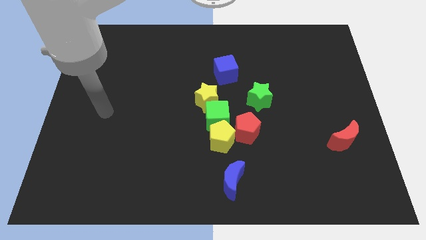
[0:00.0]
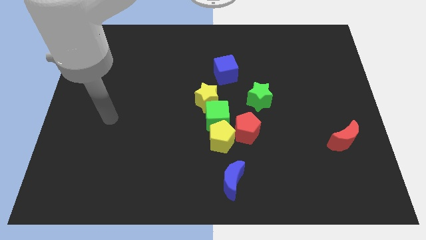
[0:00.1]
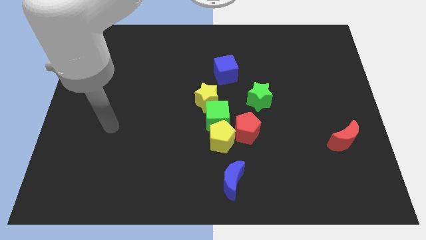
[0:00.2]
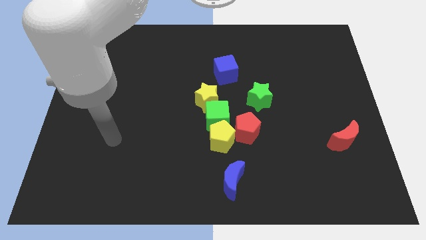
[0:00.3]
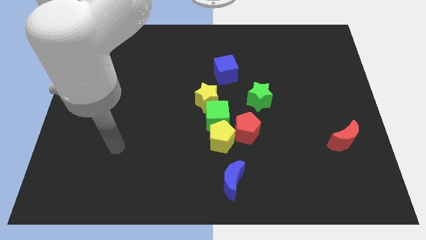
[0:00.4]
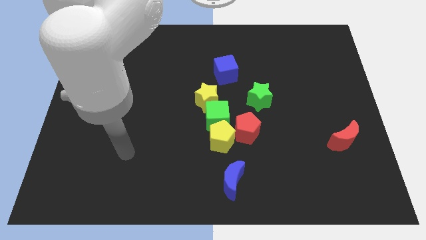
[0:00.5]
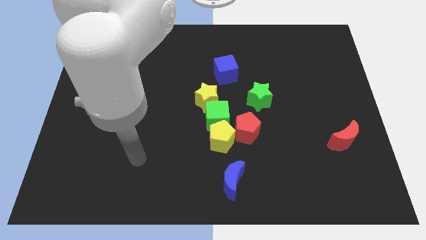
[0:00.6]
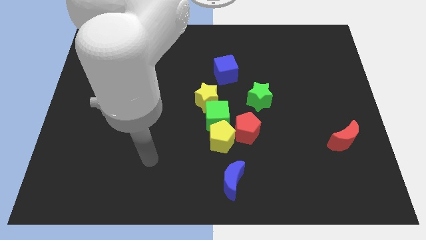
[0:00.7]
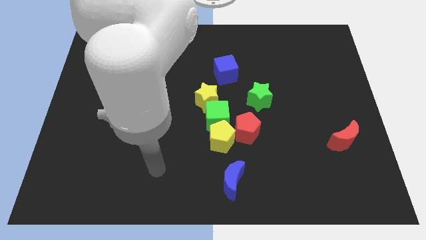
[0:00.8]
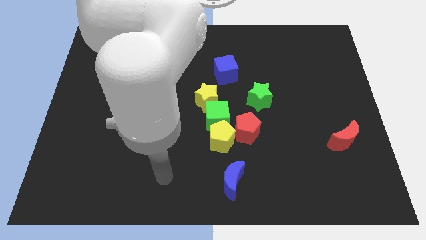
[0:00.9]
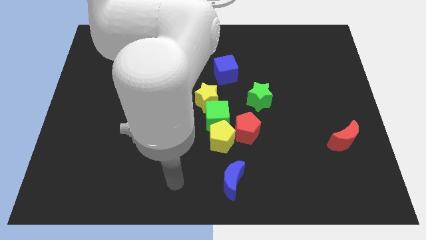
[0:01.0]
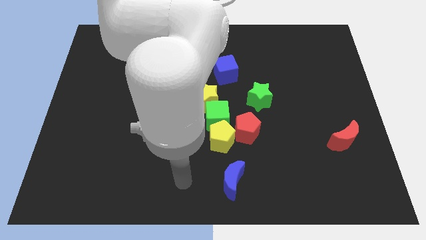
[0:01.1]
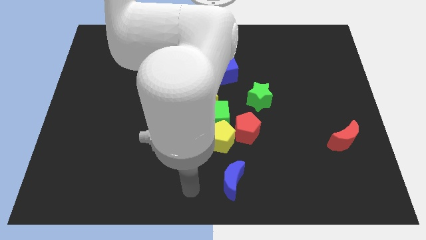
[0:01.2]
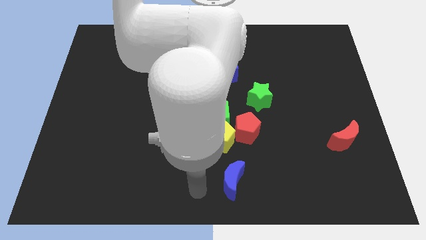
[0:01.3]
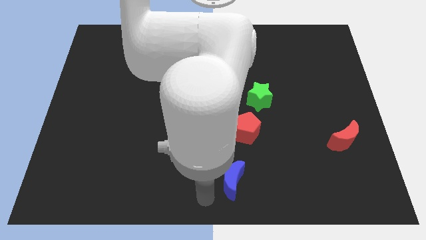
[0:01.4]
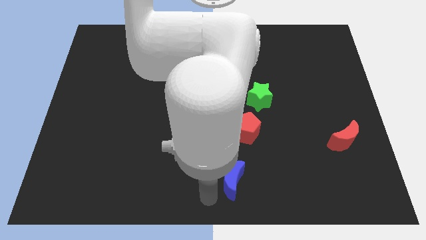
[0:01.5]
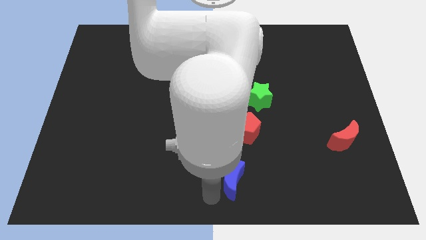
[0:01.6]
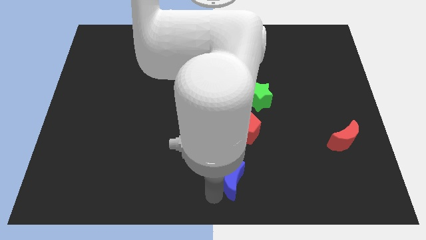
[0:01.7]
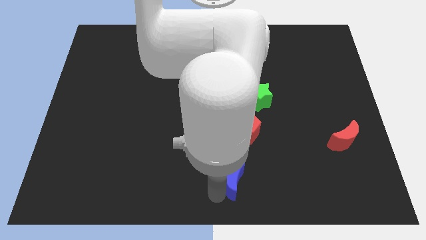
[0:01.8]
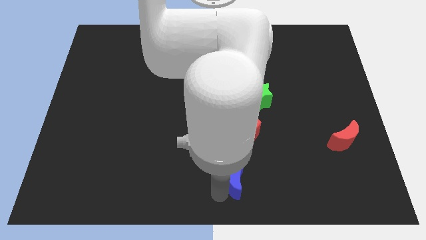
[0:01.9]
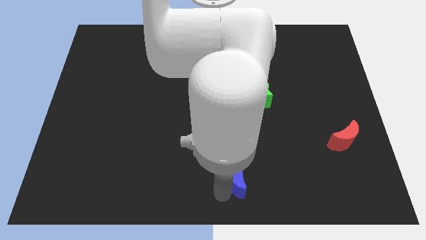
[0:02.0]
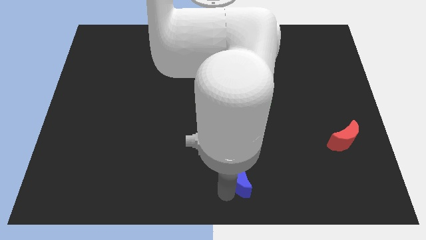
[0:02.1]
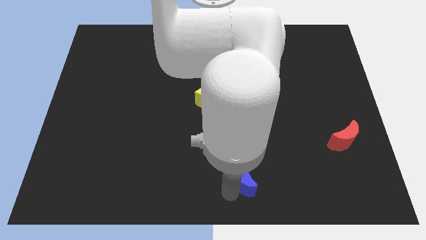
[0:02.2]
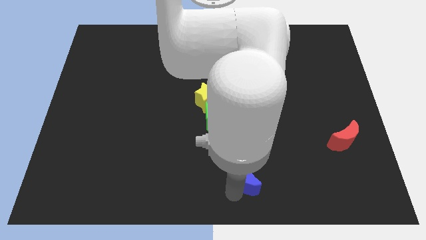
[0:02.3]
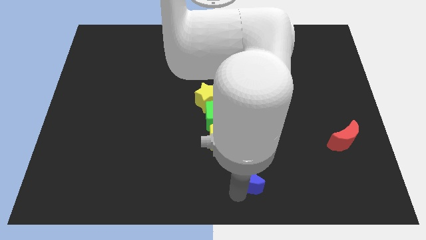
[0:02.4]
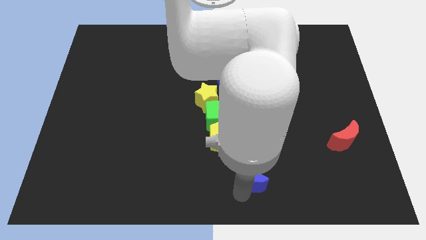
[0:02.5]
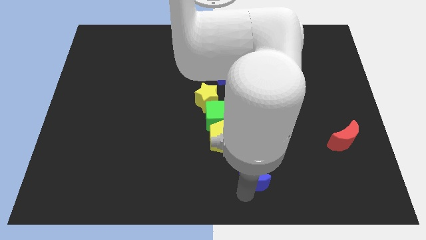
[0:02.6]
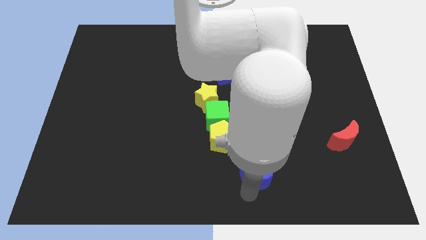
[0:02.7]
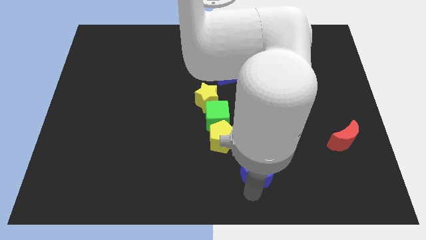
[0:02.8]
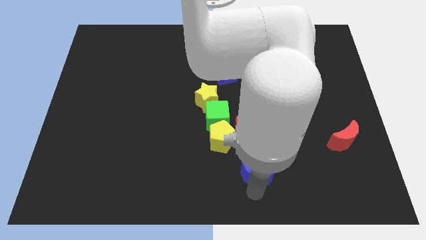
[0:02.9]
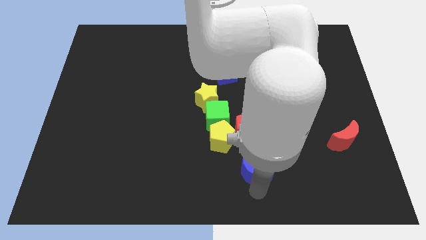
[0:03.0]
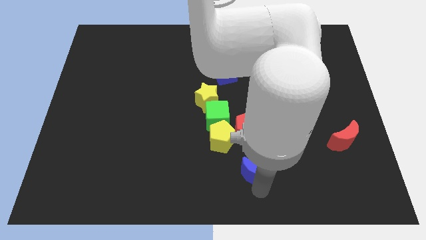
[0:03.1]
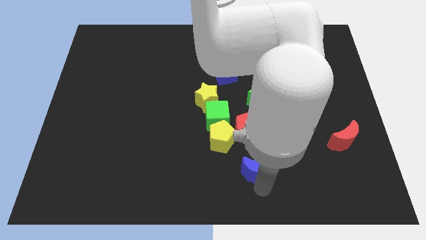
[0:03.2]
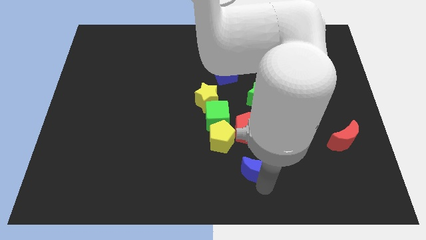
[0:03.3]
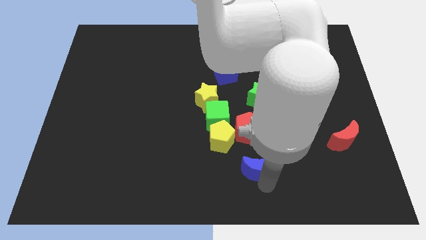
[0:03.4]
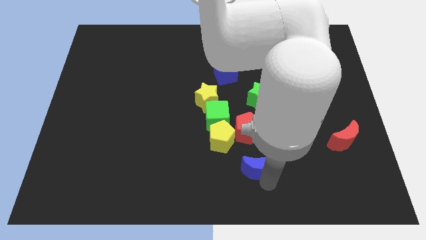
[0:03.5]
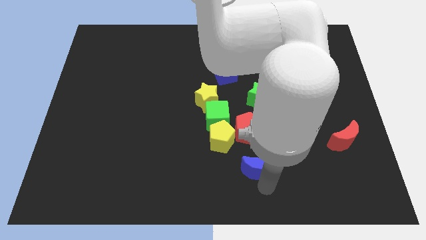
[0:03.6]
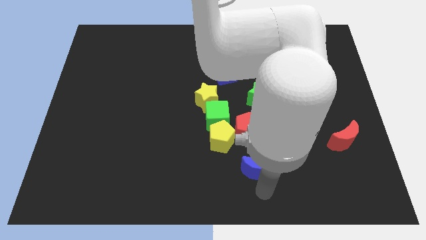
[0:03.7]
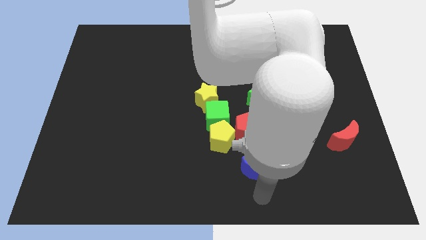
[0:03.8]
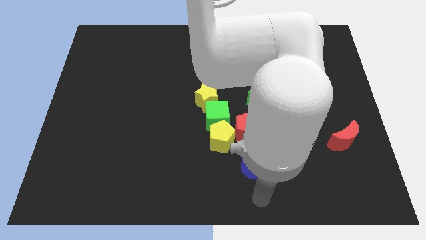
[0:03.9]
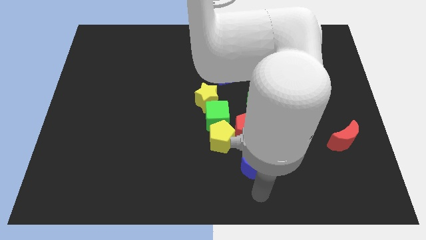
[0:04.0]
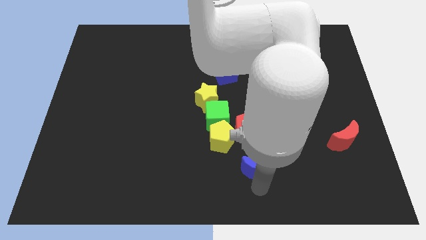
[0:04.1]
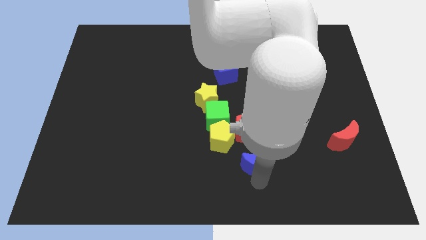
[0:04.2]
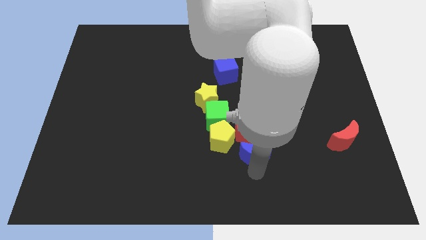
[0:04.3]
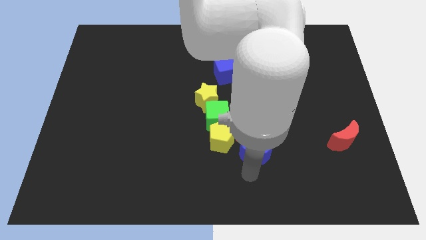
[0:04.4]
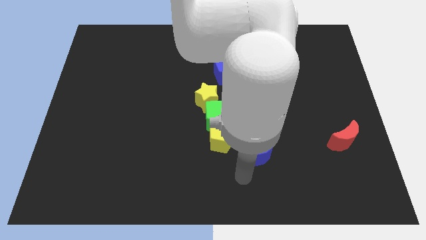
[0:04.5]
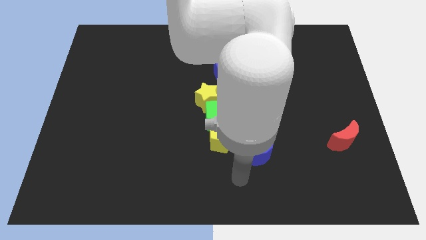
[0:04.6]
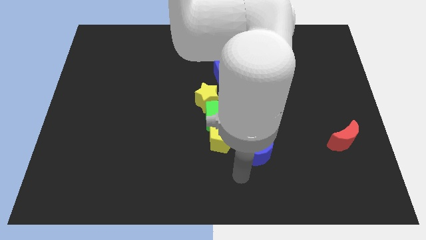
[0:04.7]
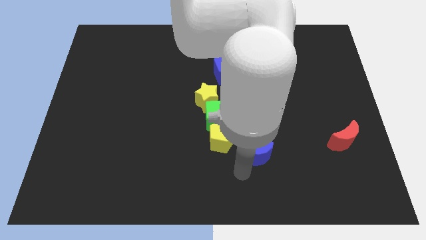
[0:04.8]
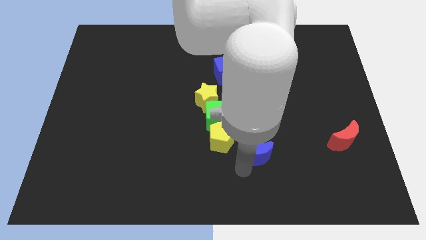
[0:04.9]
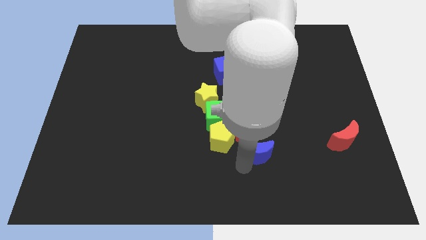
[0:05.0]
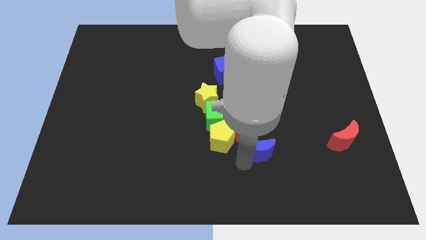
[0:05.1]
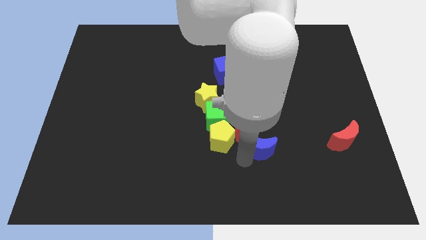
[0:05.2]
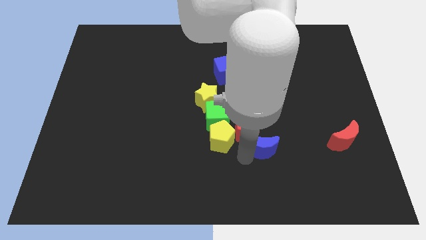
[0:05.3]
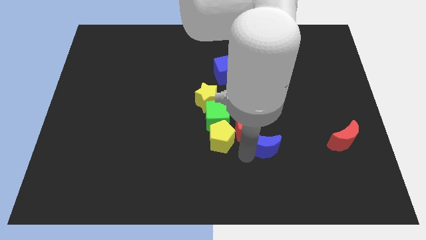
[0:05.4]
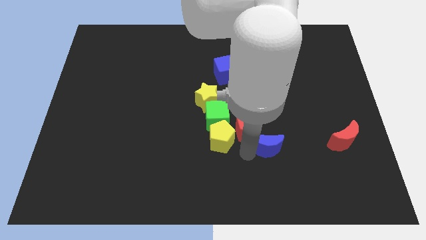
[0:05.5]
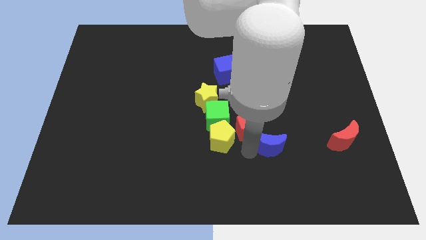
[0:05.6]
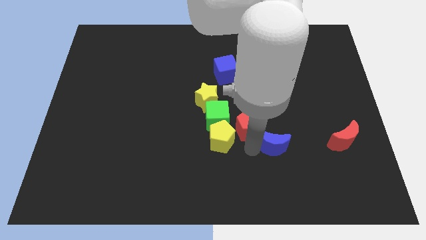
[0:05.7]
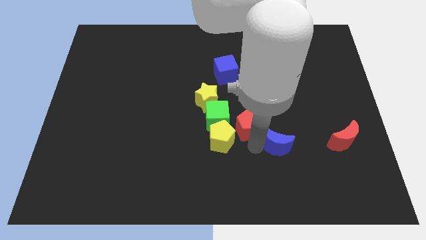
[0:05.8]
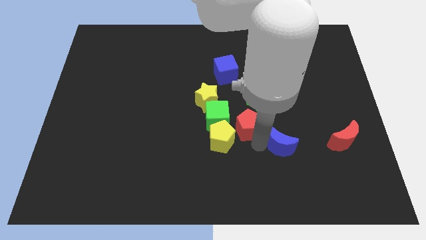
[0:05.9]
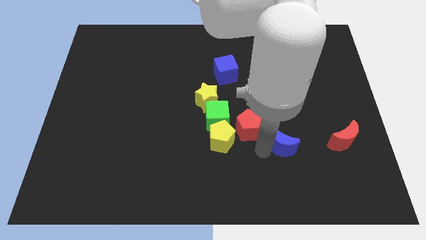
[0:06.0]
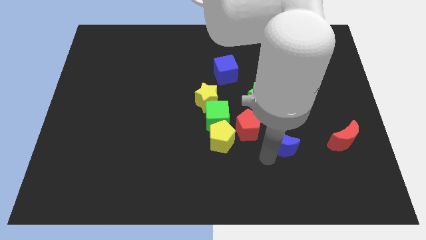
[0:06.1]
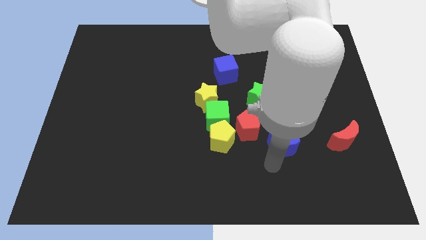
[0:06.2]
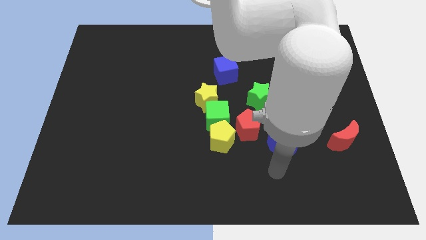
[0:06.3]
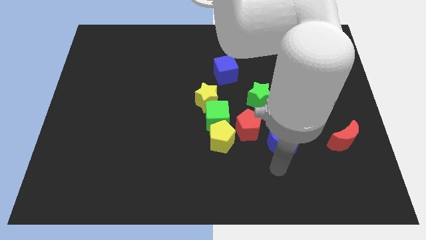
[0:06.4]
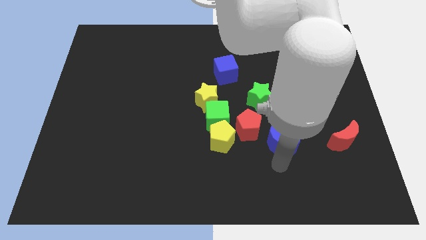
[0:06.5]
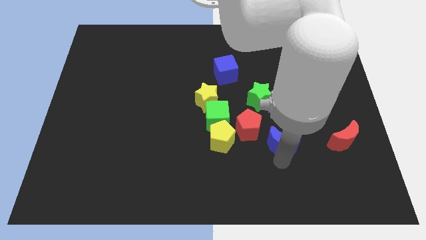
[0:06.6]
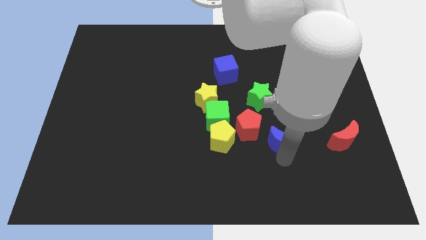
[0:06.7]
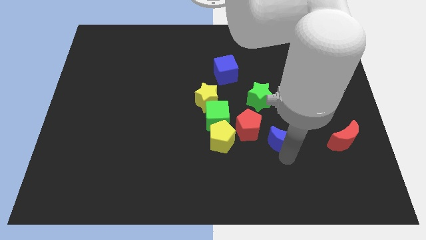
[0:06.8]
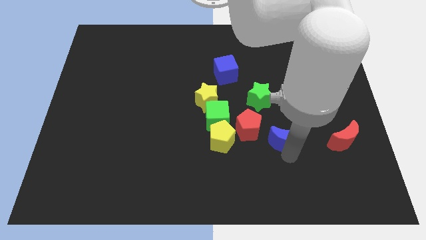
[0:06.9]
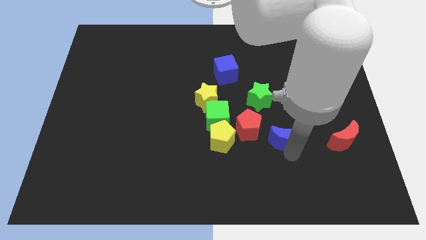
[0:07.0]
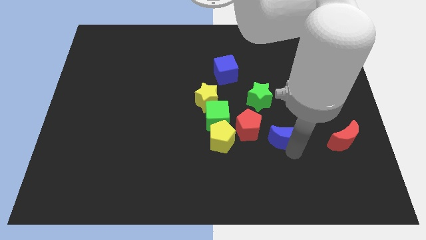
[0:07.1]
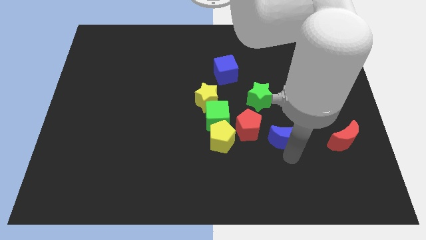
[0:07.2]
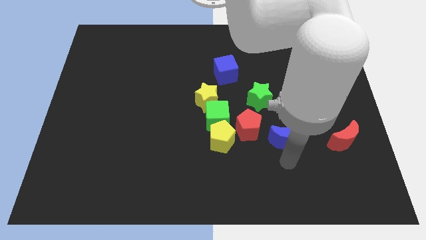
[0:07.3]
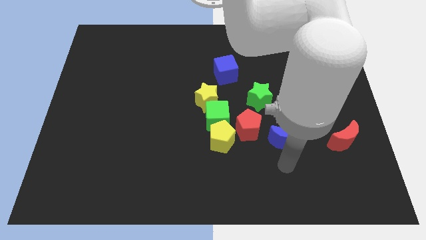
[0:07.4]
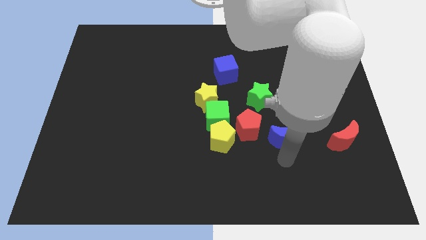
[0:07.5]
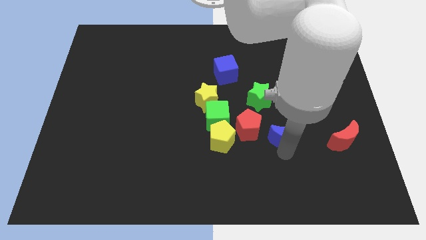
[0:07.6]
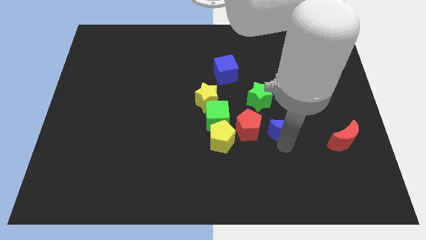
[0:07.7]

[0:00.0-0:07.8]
move the blue moon to the bottom right of the green star
